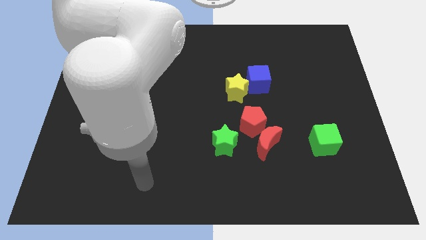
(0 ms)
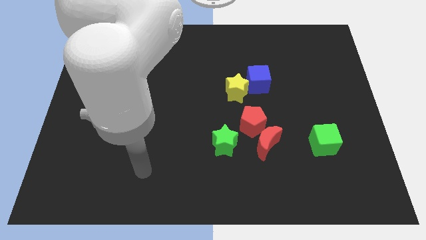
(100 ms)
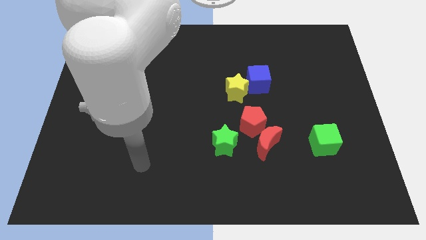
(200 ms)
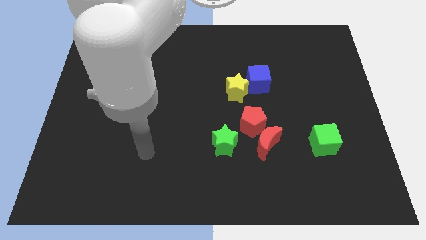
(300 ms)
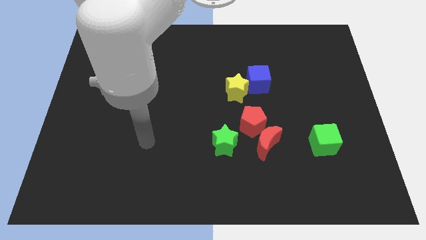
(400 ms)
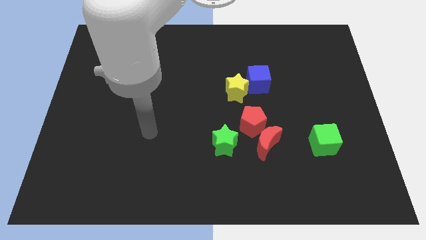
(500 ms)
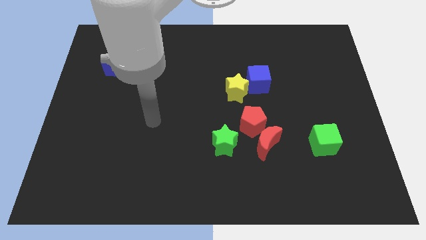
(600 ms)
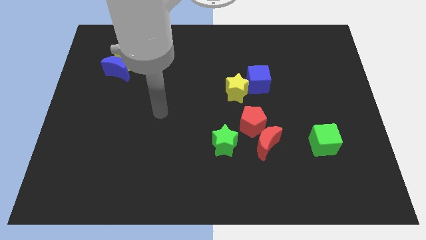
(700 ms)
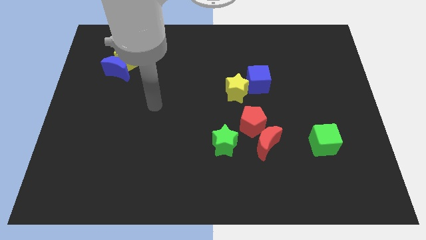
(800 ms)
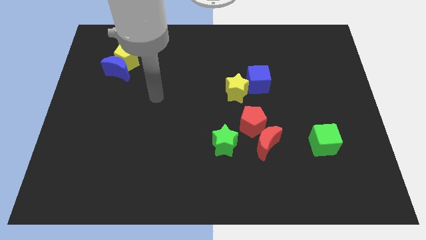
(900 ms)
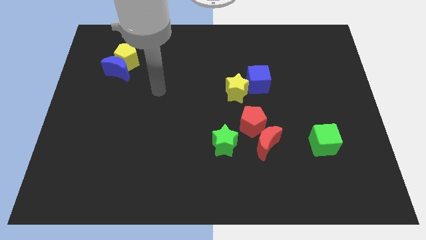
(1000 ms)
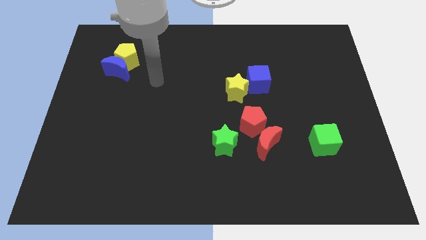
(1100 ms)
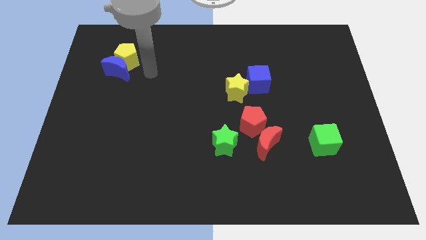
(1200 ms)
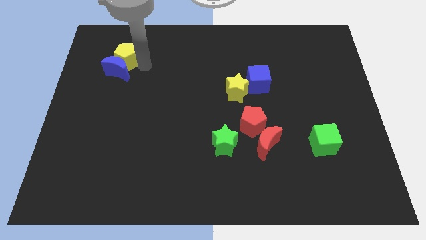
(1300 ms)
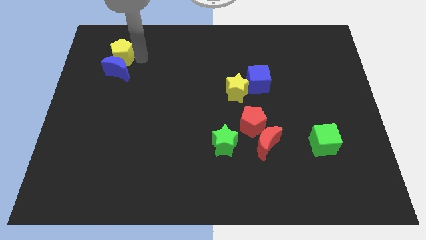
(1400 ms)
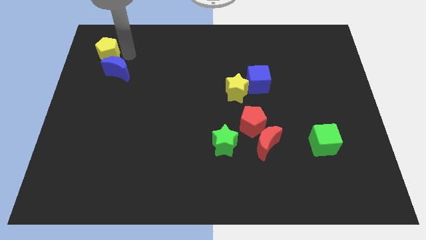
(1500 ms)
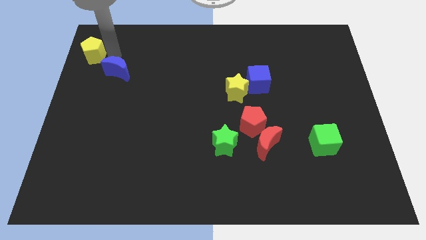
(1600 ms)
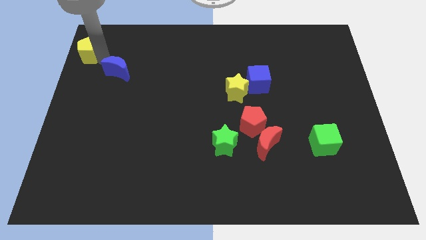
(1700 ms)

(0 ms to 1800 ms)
separate the blue moon from the yellow pentagon

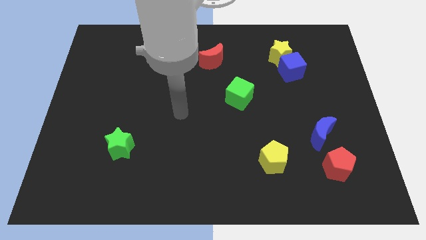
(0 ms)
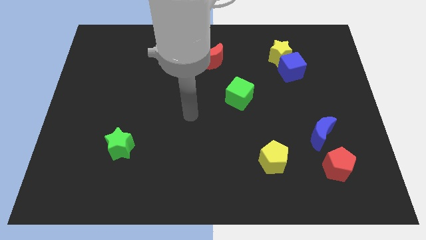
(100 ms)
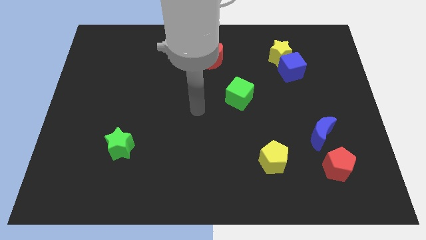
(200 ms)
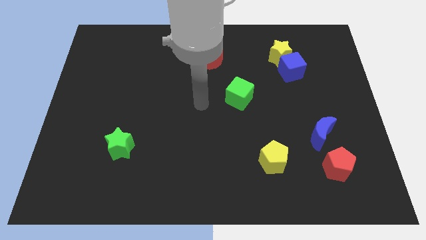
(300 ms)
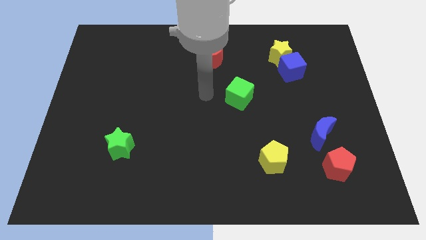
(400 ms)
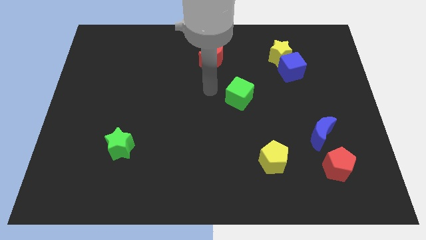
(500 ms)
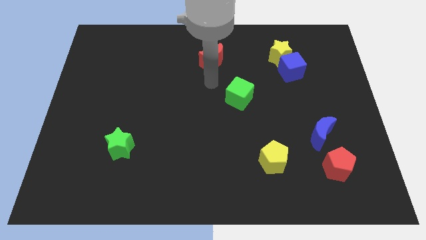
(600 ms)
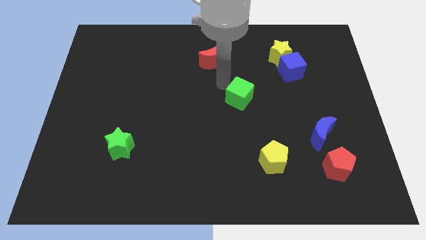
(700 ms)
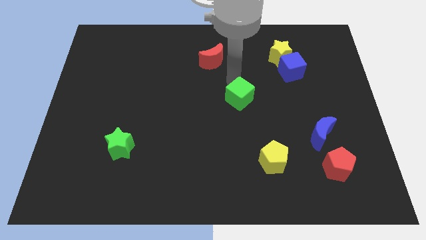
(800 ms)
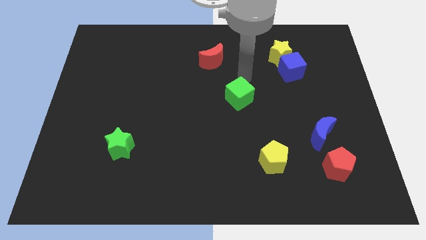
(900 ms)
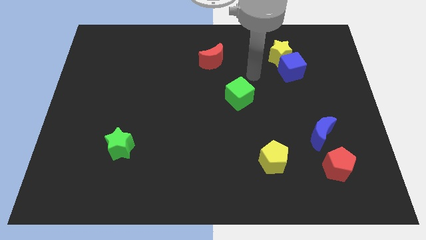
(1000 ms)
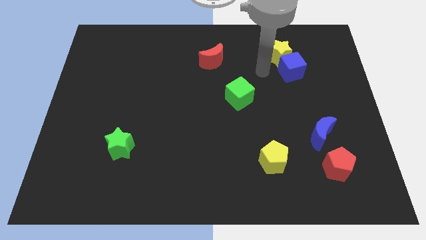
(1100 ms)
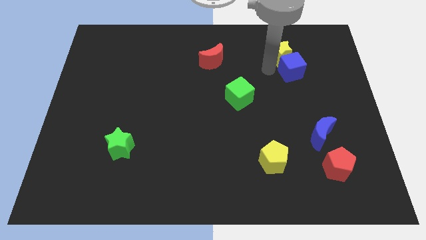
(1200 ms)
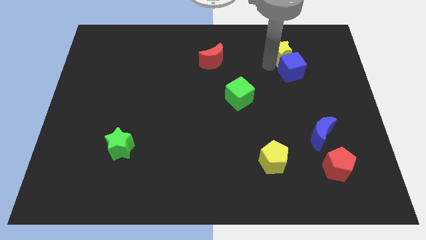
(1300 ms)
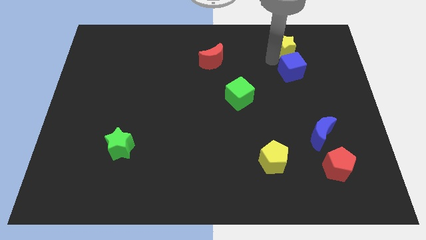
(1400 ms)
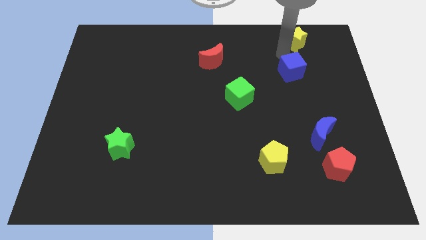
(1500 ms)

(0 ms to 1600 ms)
pull the blue cube apart from the yellow star

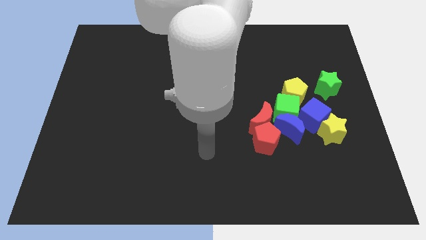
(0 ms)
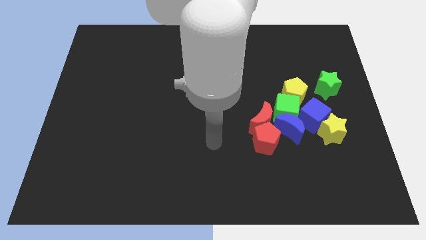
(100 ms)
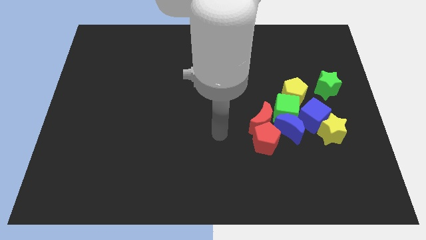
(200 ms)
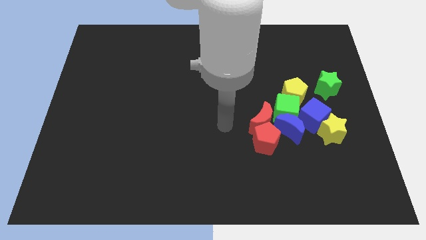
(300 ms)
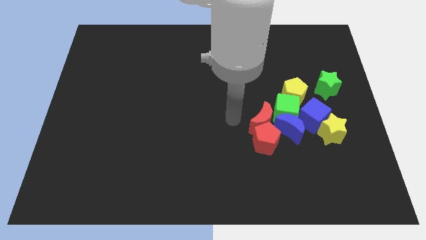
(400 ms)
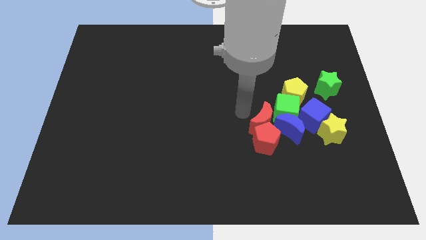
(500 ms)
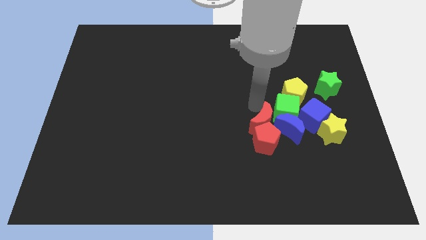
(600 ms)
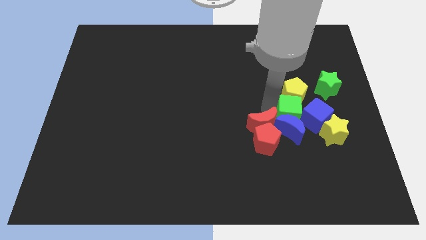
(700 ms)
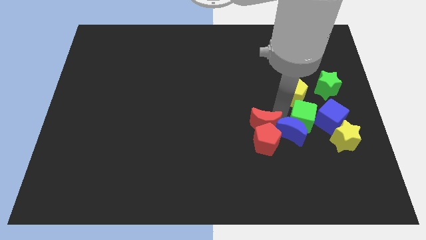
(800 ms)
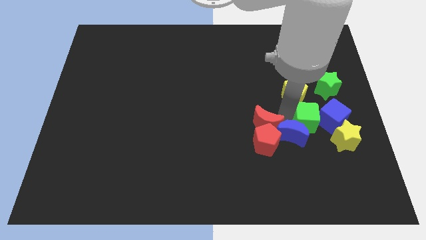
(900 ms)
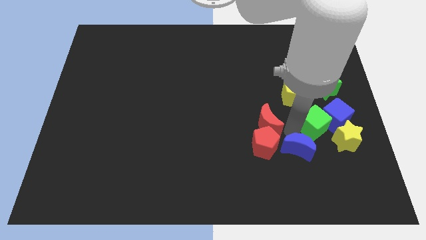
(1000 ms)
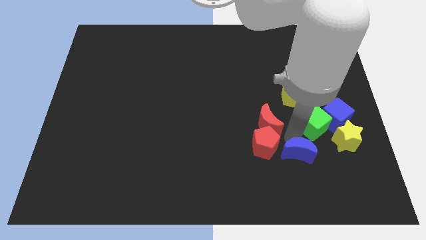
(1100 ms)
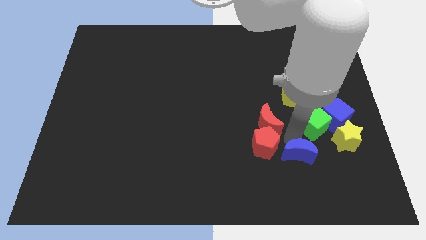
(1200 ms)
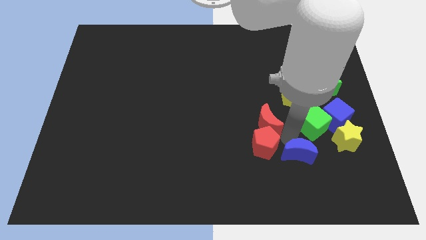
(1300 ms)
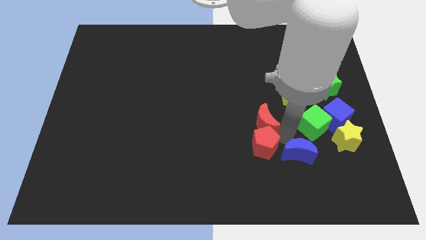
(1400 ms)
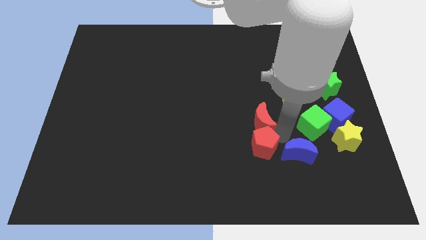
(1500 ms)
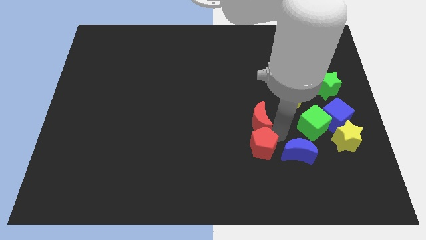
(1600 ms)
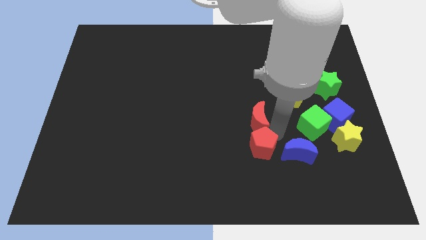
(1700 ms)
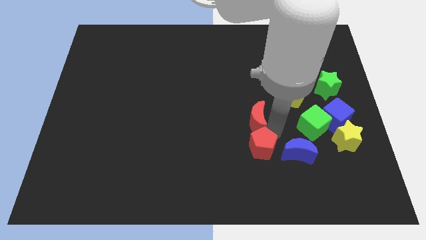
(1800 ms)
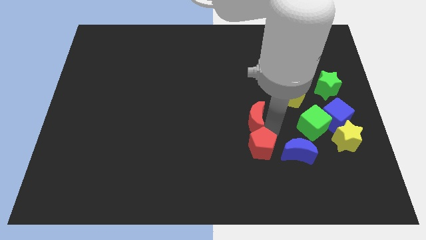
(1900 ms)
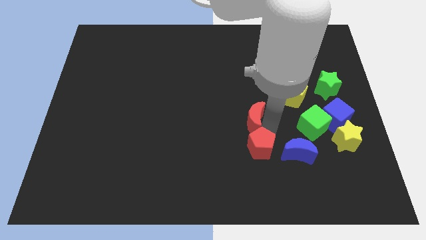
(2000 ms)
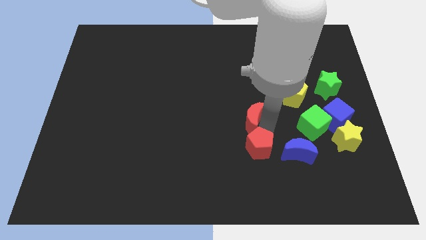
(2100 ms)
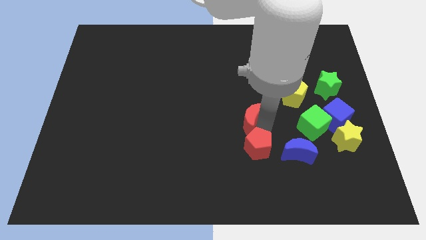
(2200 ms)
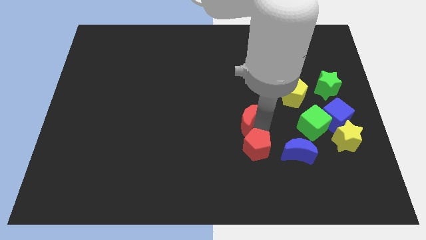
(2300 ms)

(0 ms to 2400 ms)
pull the red moon apart from the group

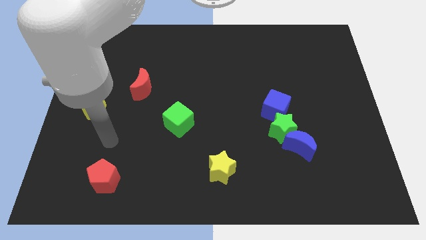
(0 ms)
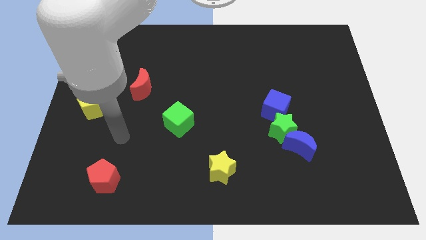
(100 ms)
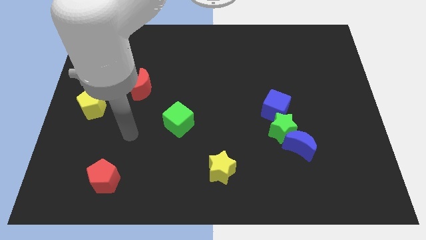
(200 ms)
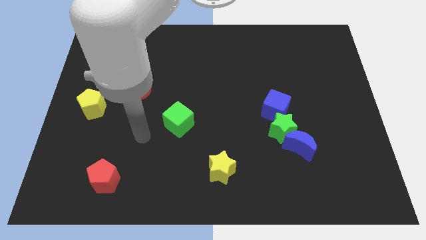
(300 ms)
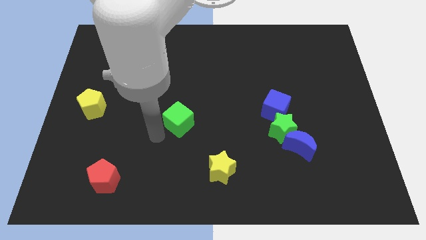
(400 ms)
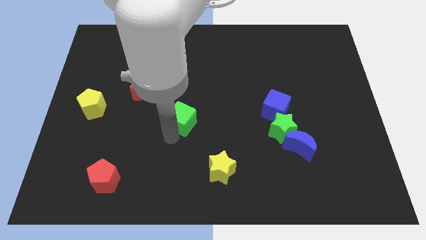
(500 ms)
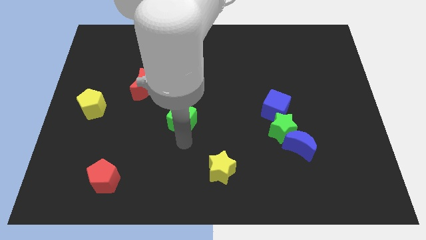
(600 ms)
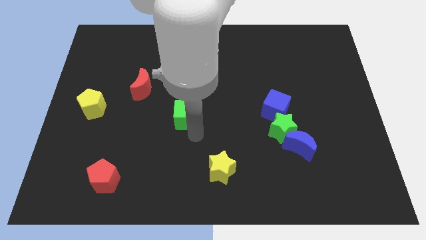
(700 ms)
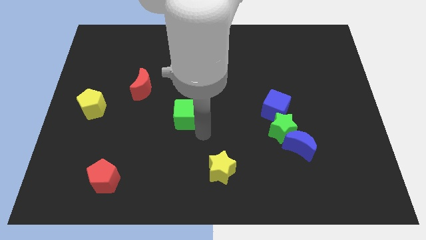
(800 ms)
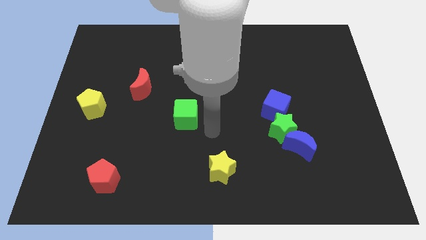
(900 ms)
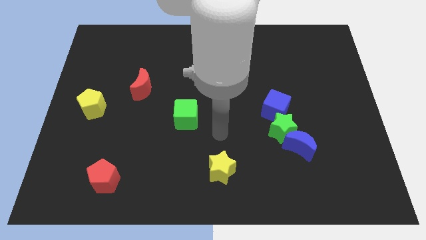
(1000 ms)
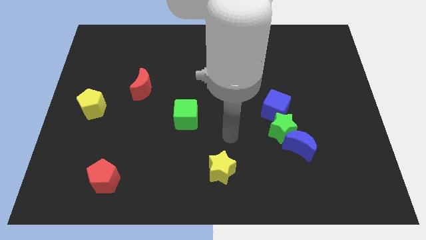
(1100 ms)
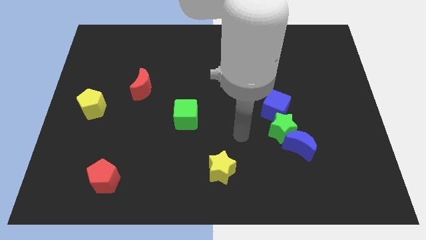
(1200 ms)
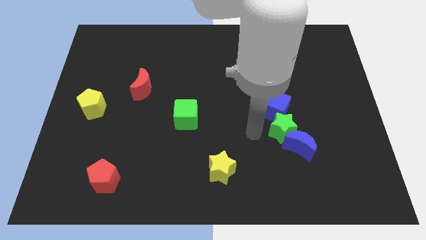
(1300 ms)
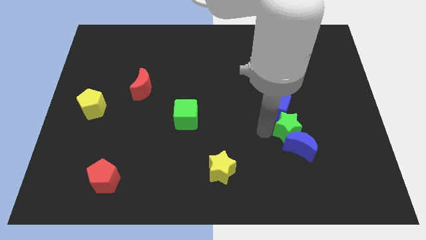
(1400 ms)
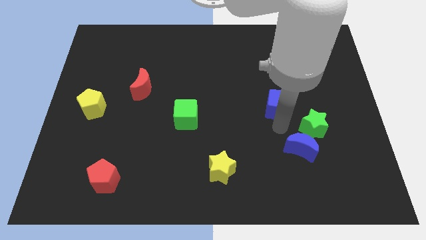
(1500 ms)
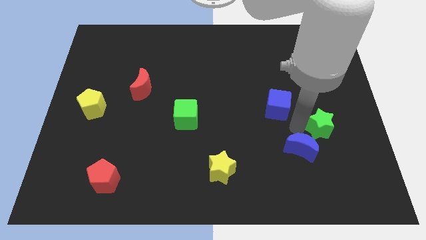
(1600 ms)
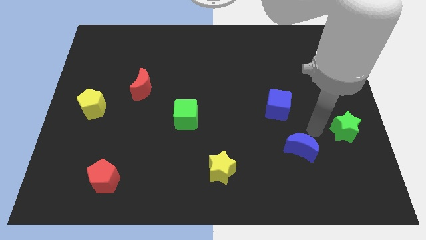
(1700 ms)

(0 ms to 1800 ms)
pull the blue moon apart from the green star

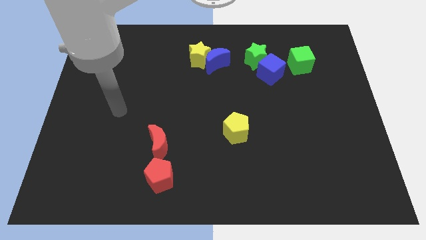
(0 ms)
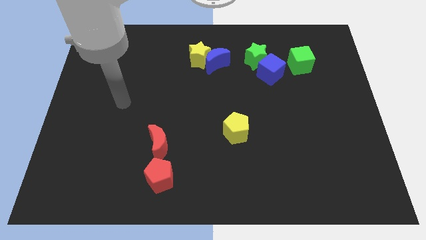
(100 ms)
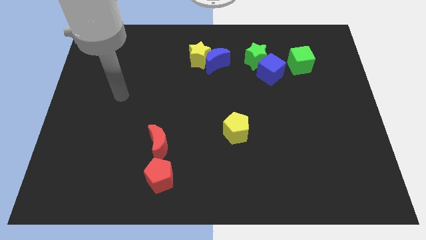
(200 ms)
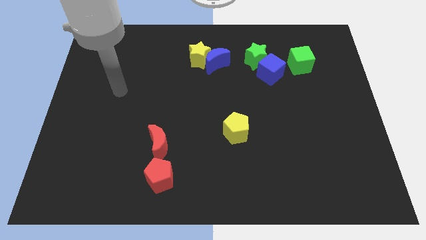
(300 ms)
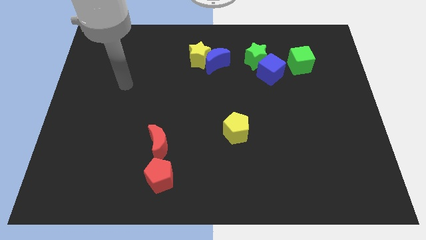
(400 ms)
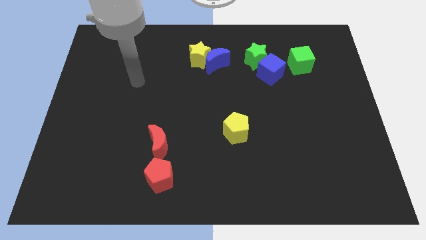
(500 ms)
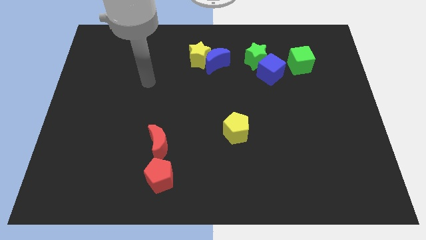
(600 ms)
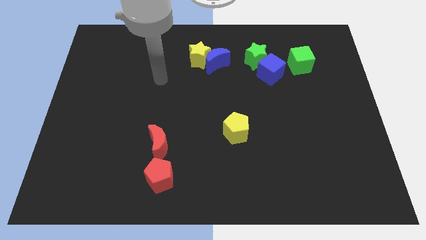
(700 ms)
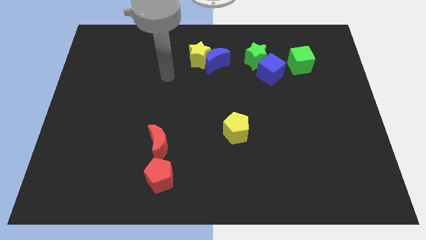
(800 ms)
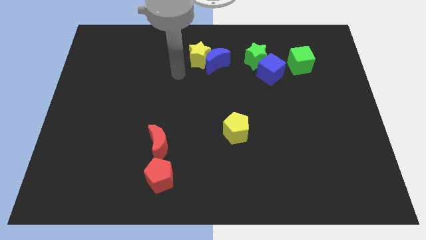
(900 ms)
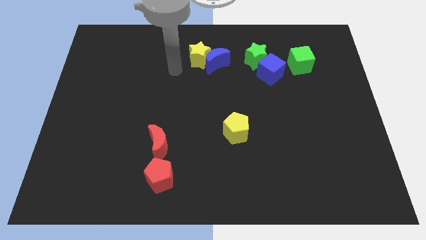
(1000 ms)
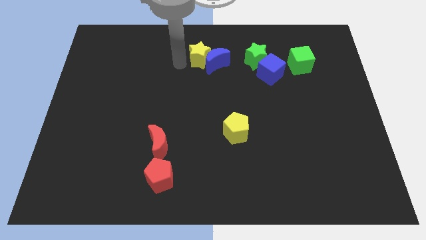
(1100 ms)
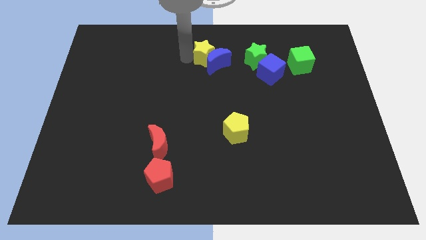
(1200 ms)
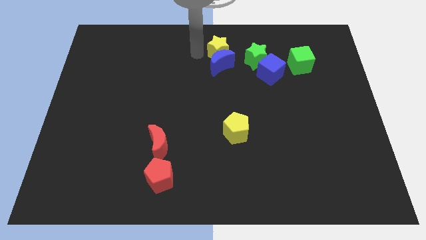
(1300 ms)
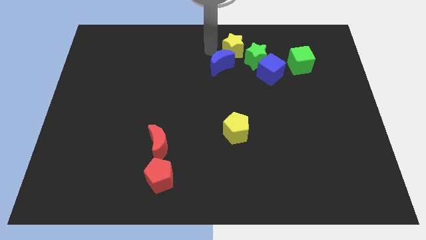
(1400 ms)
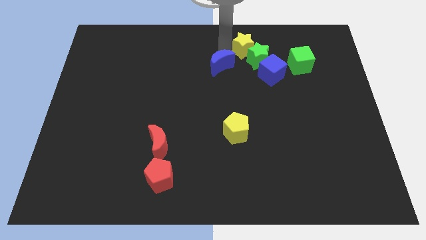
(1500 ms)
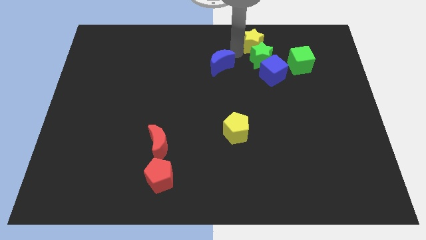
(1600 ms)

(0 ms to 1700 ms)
move the blue moon away from the yellow star
